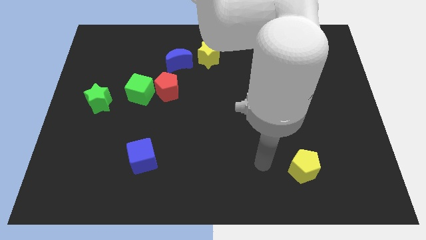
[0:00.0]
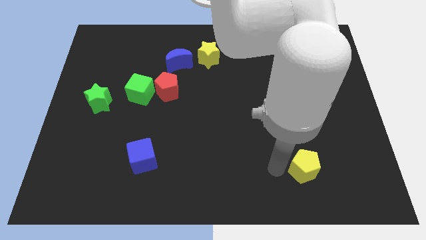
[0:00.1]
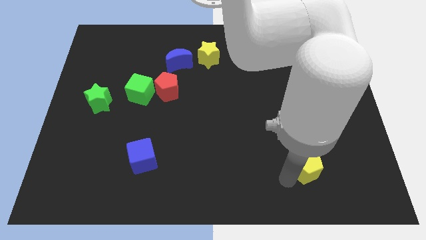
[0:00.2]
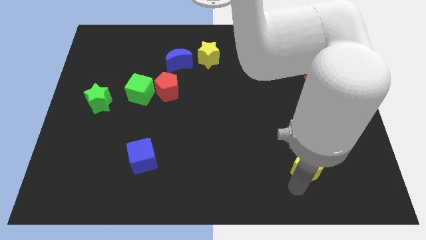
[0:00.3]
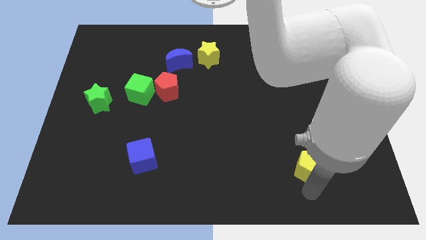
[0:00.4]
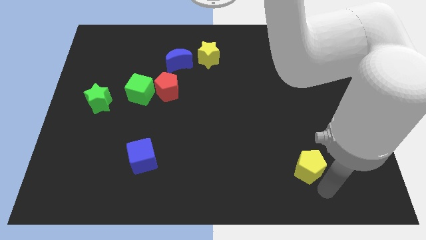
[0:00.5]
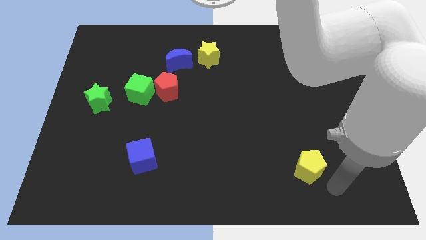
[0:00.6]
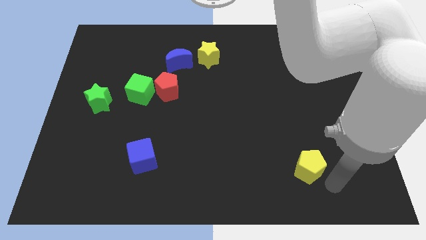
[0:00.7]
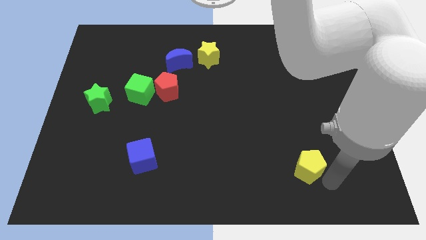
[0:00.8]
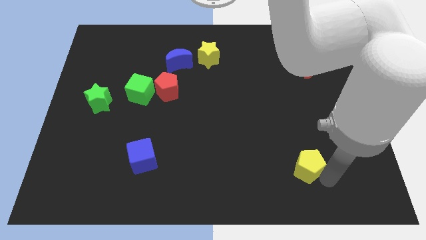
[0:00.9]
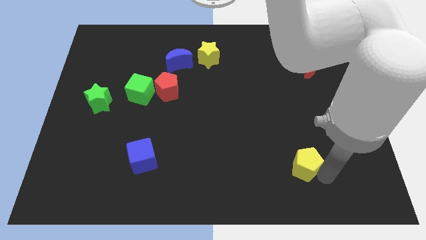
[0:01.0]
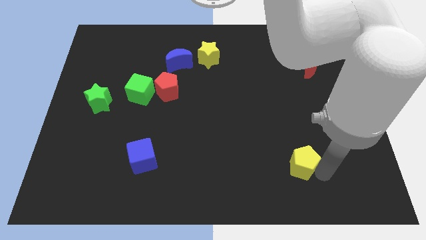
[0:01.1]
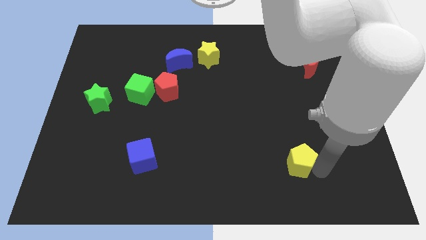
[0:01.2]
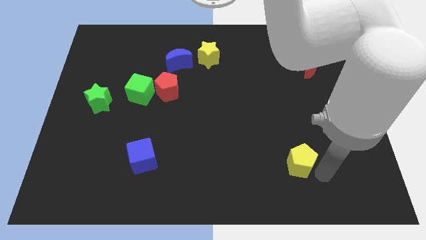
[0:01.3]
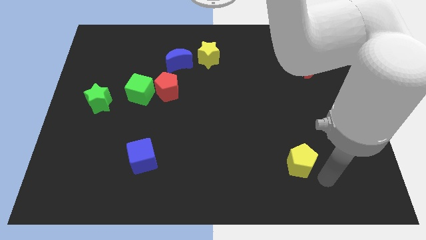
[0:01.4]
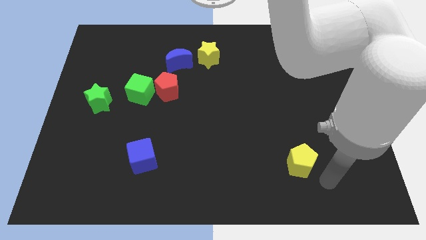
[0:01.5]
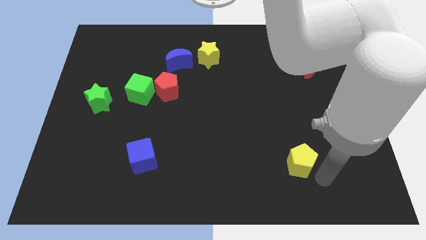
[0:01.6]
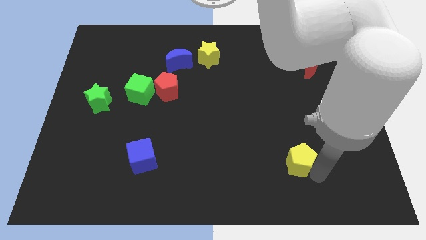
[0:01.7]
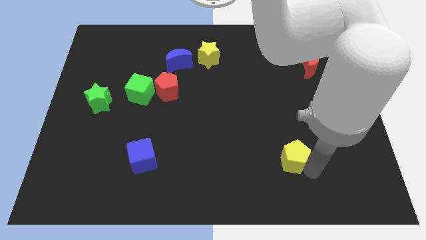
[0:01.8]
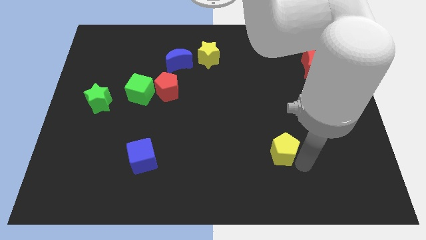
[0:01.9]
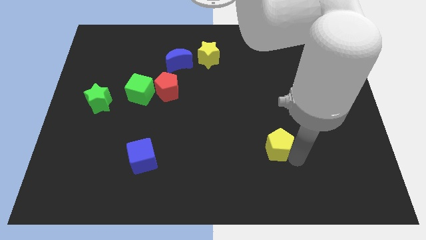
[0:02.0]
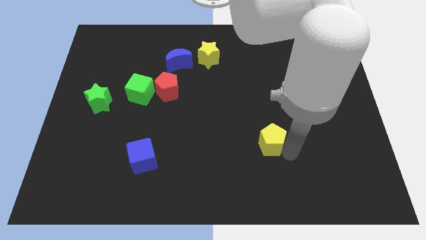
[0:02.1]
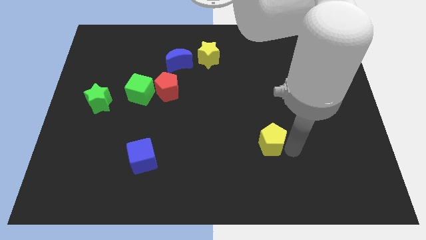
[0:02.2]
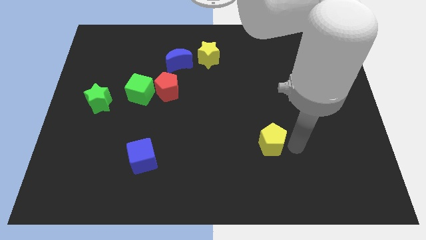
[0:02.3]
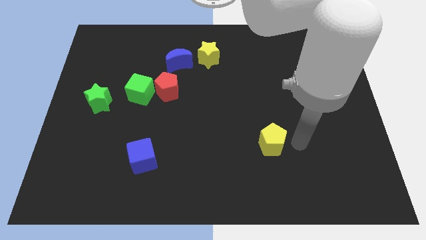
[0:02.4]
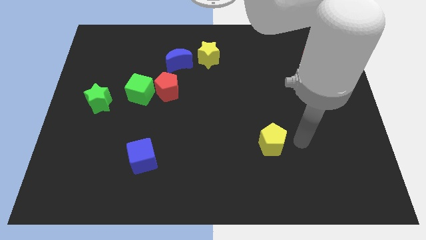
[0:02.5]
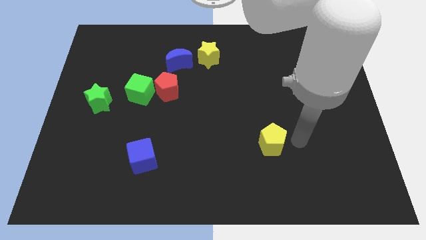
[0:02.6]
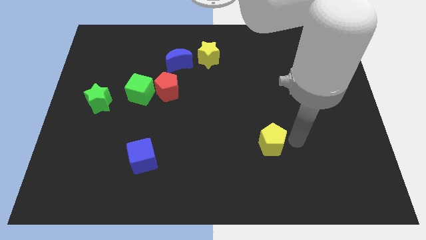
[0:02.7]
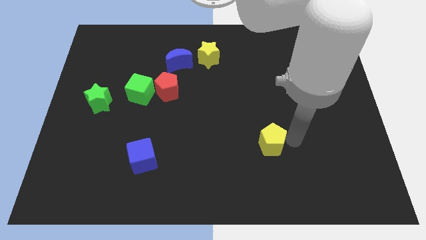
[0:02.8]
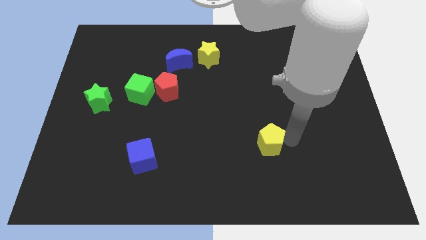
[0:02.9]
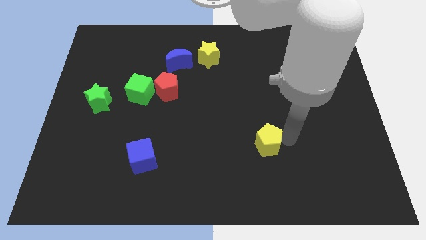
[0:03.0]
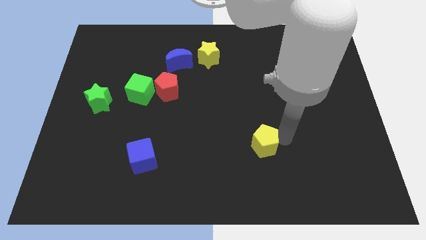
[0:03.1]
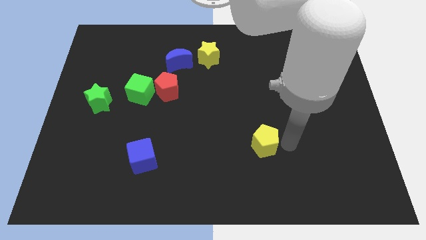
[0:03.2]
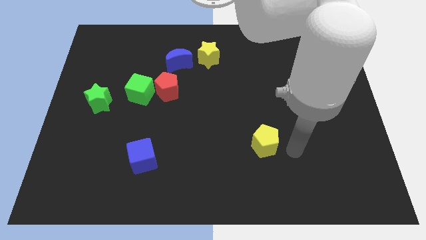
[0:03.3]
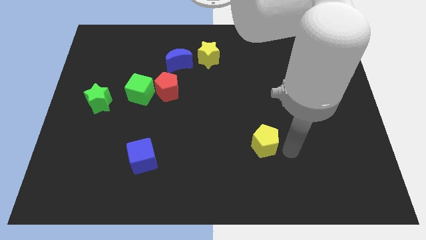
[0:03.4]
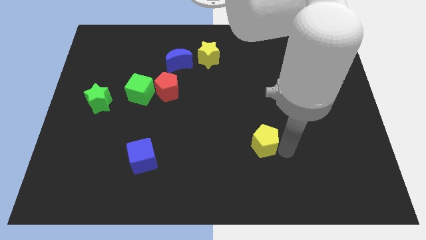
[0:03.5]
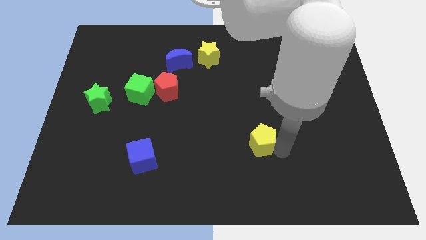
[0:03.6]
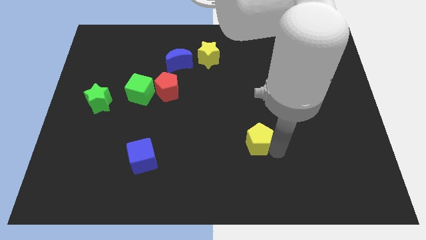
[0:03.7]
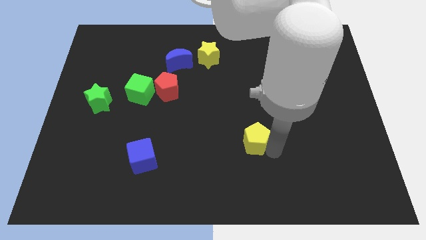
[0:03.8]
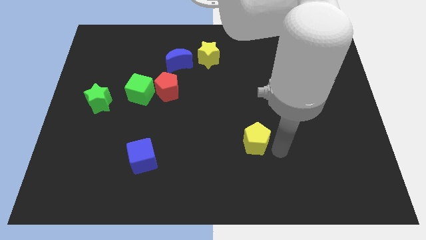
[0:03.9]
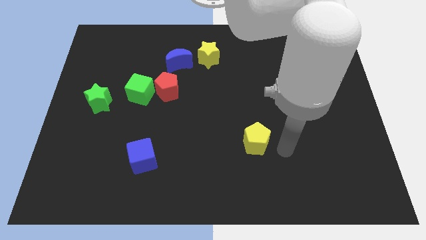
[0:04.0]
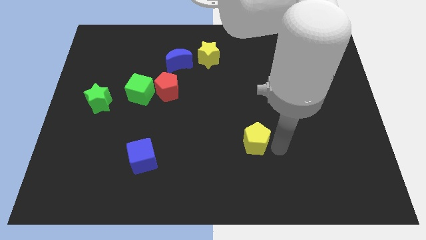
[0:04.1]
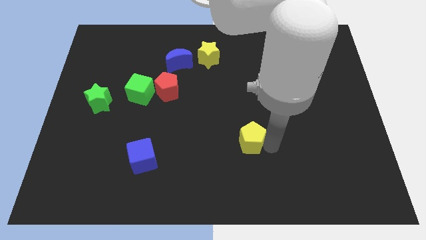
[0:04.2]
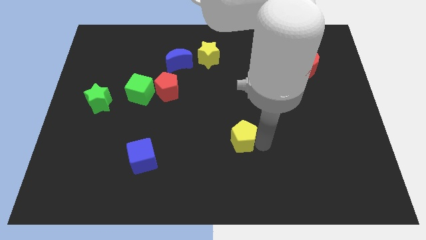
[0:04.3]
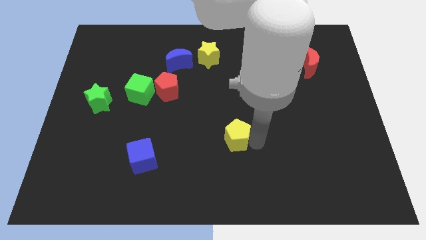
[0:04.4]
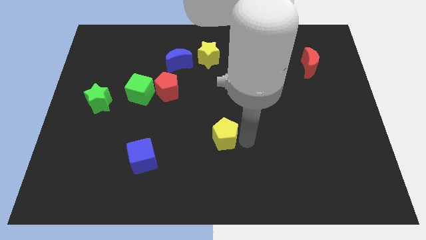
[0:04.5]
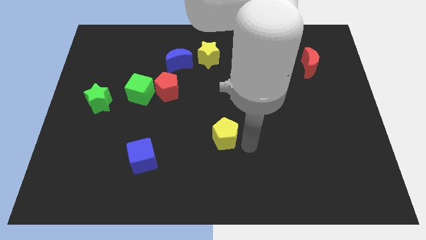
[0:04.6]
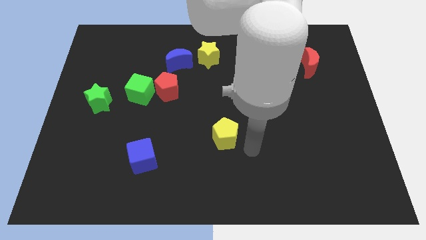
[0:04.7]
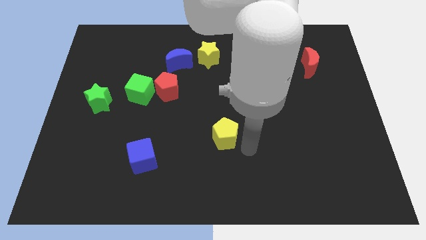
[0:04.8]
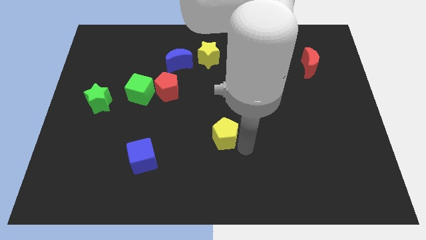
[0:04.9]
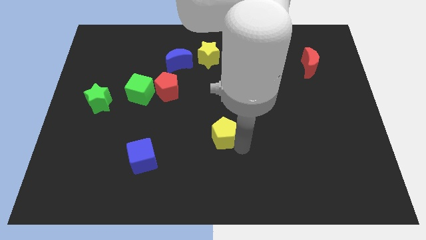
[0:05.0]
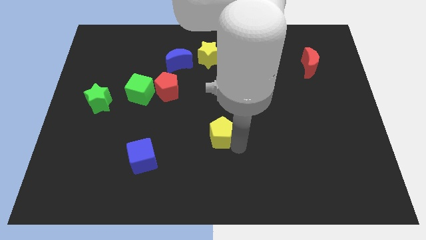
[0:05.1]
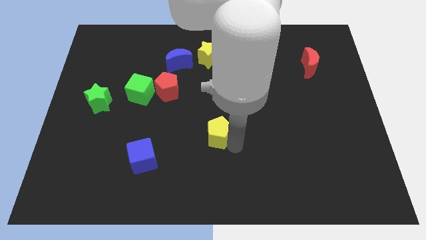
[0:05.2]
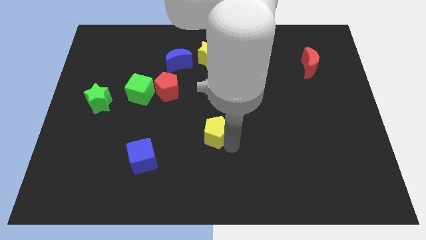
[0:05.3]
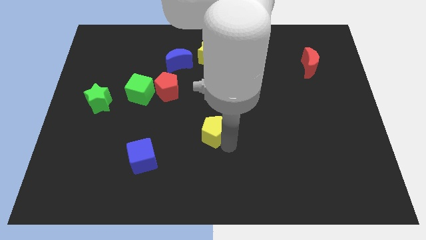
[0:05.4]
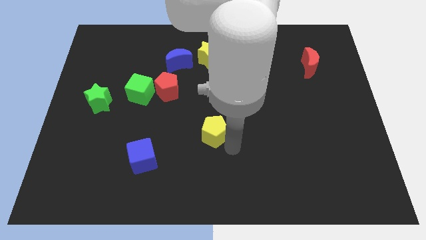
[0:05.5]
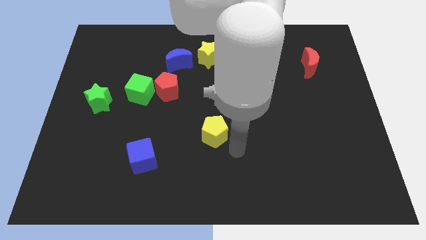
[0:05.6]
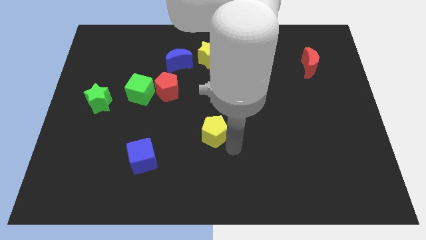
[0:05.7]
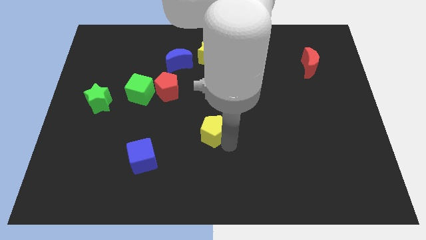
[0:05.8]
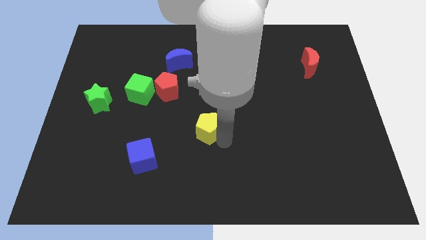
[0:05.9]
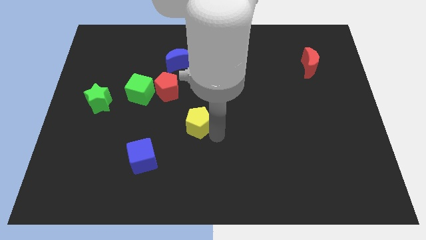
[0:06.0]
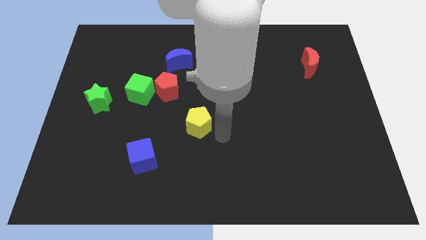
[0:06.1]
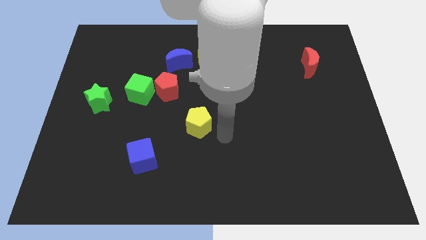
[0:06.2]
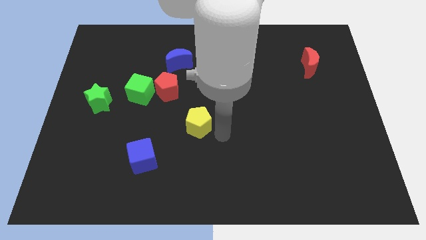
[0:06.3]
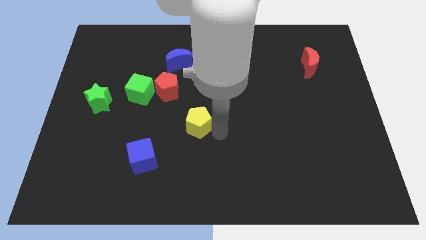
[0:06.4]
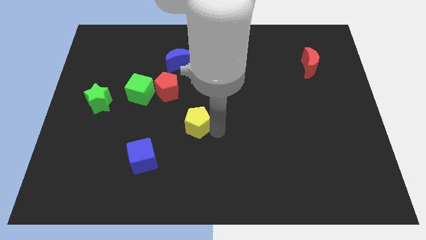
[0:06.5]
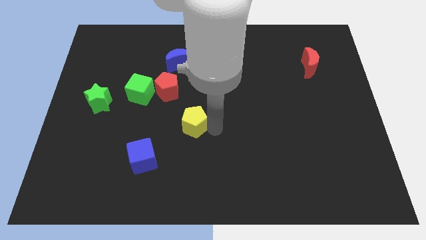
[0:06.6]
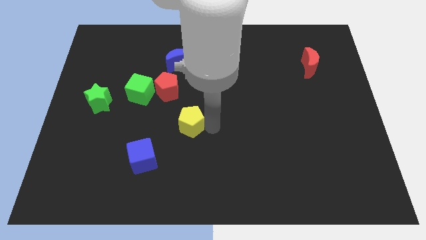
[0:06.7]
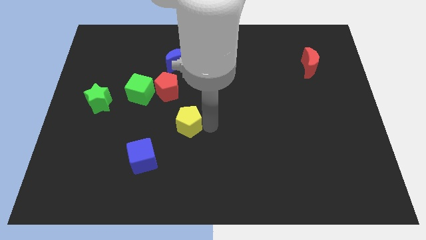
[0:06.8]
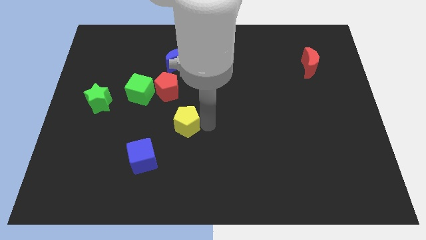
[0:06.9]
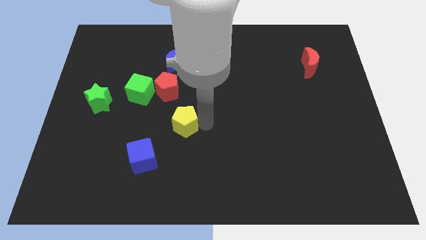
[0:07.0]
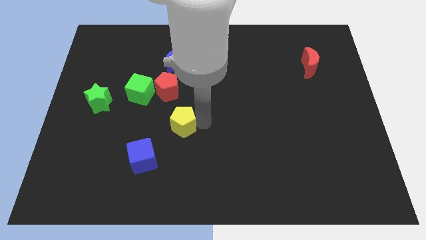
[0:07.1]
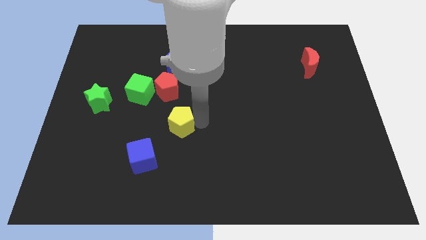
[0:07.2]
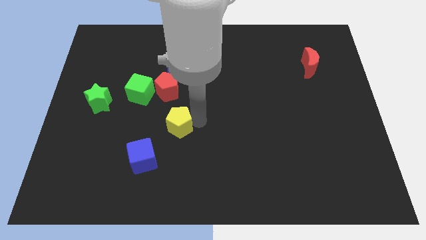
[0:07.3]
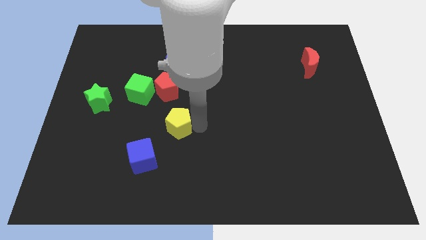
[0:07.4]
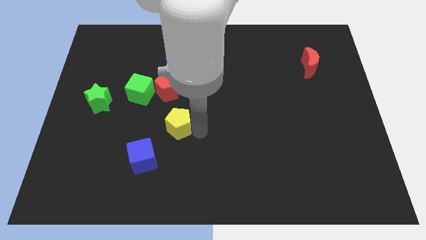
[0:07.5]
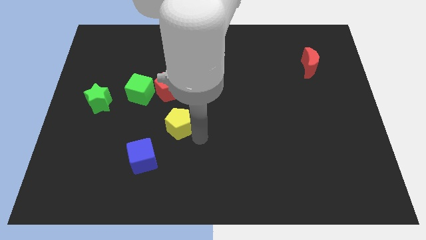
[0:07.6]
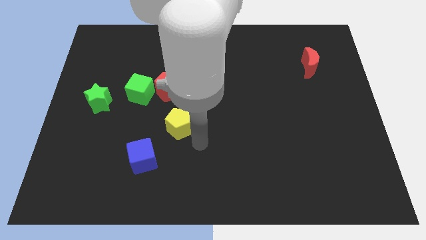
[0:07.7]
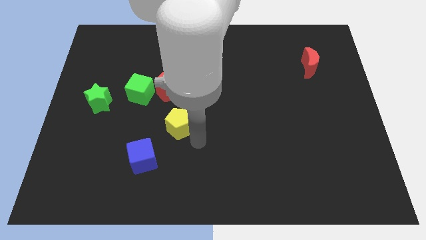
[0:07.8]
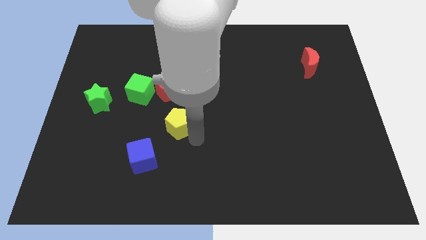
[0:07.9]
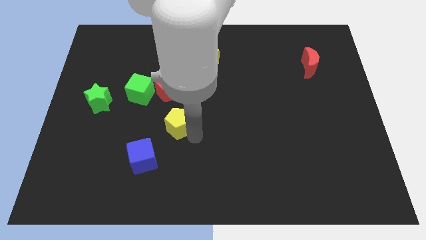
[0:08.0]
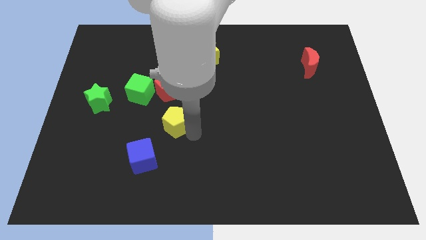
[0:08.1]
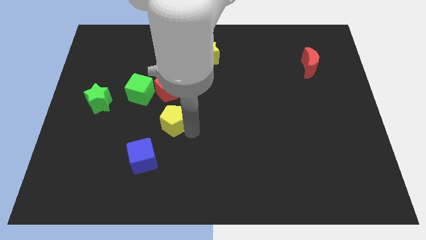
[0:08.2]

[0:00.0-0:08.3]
put the yellow pentagon diagonally down and to the right of the green cube
